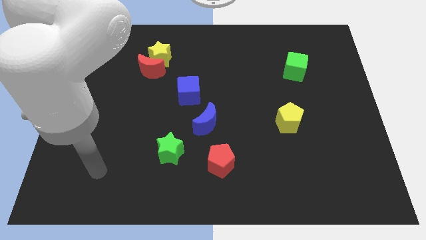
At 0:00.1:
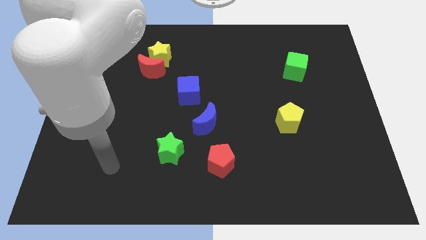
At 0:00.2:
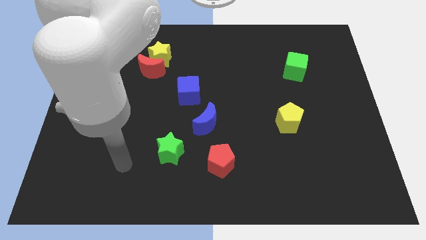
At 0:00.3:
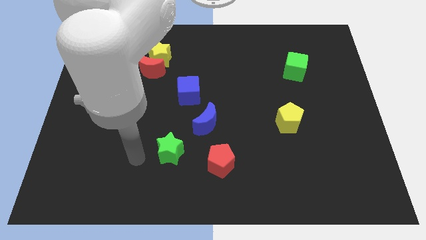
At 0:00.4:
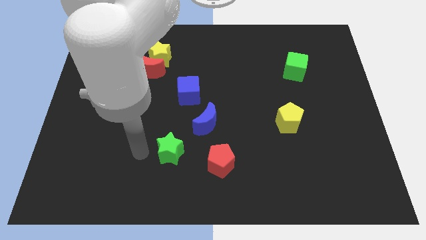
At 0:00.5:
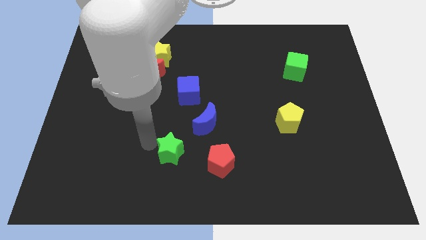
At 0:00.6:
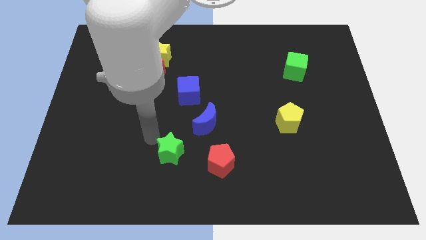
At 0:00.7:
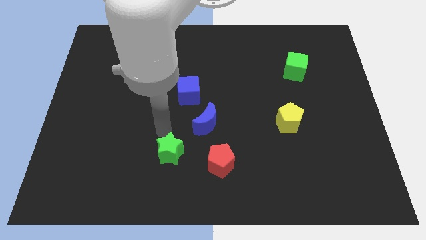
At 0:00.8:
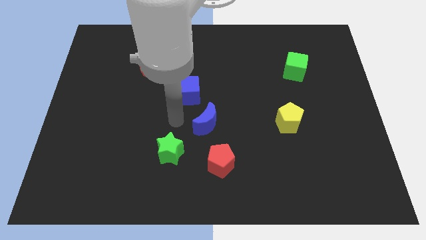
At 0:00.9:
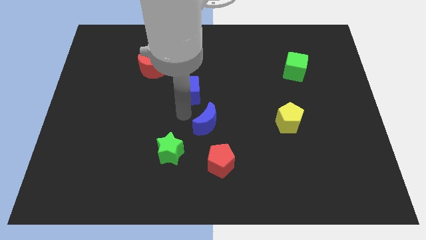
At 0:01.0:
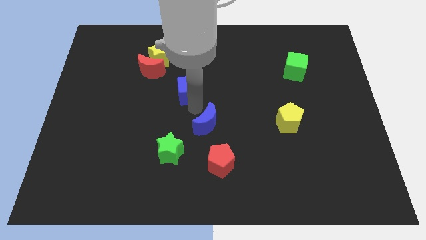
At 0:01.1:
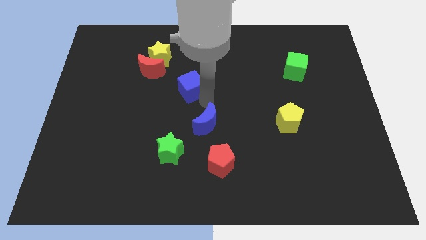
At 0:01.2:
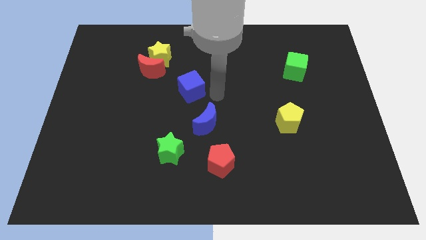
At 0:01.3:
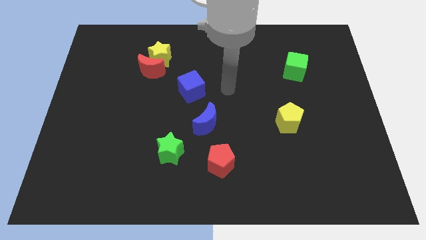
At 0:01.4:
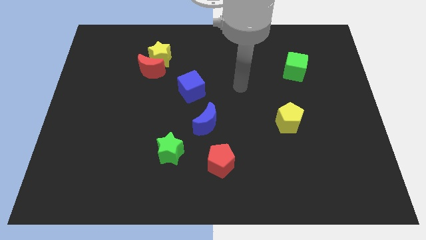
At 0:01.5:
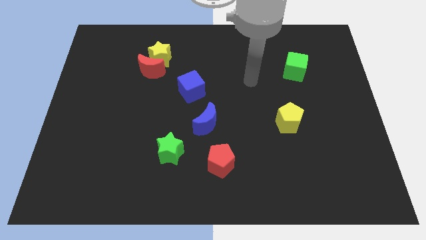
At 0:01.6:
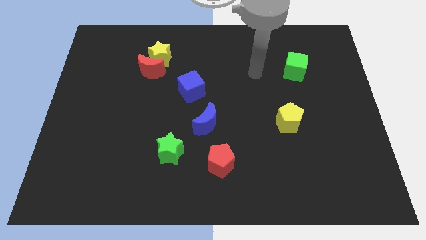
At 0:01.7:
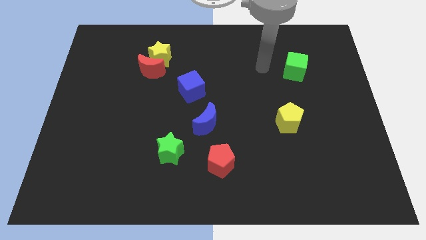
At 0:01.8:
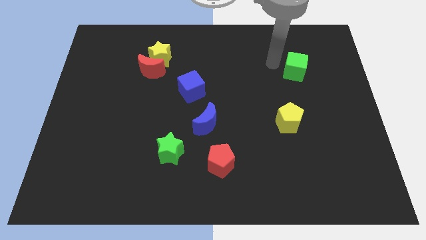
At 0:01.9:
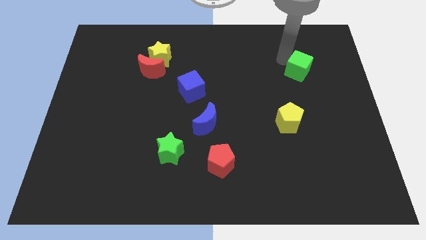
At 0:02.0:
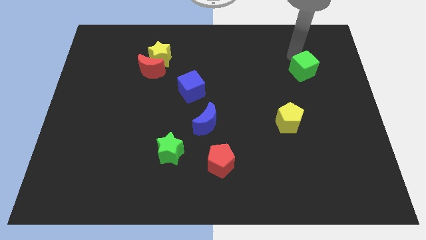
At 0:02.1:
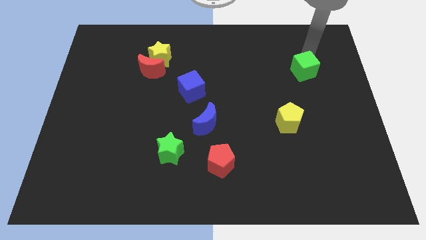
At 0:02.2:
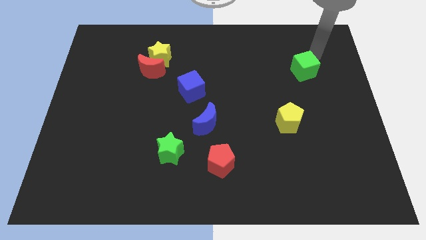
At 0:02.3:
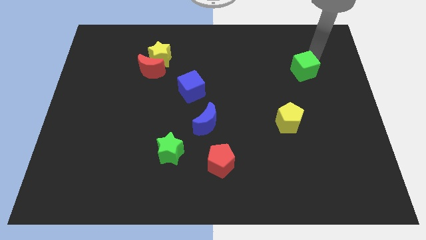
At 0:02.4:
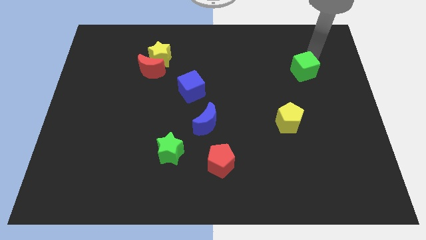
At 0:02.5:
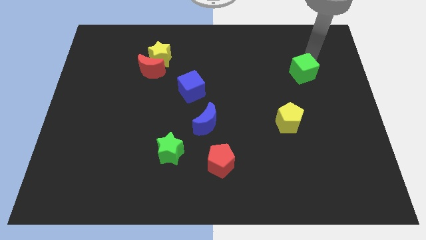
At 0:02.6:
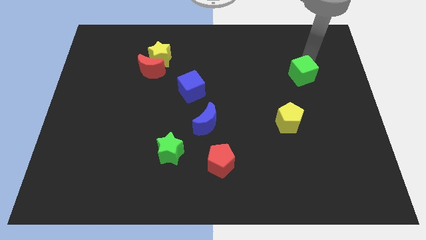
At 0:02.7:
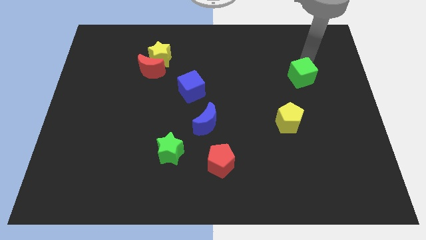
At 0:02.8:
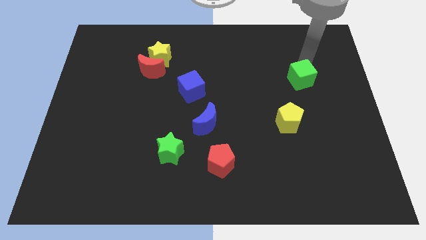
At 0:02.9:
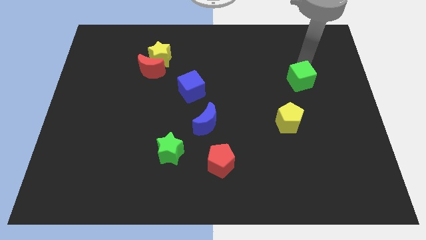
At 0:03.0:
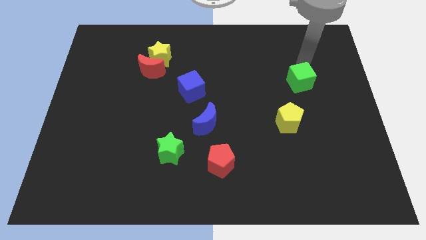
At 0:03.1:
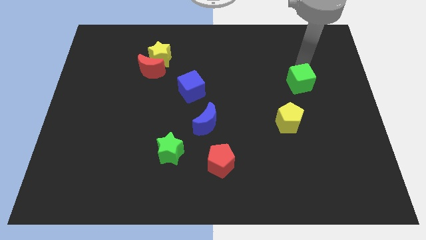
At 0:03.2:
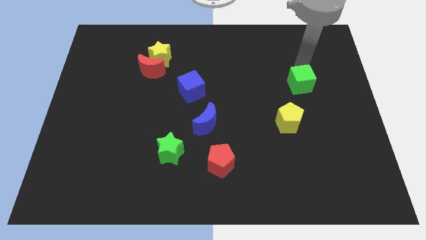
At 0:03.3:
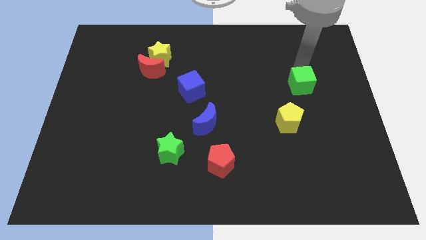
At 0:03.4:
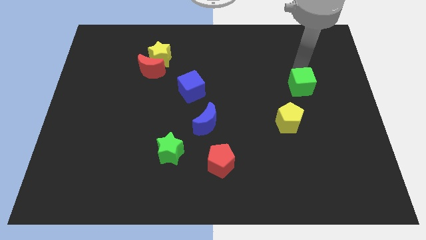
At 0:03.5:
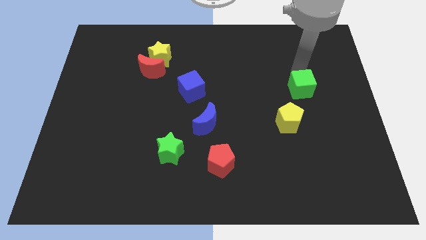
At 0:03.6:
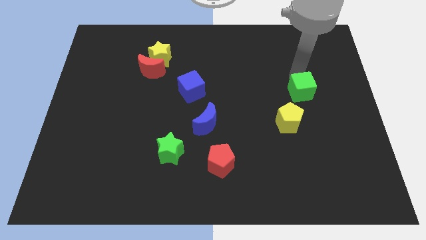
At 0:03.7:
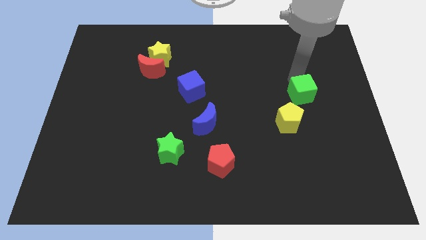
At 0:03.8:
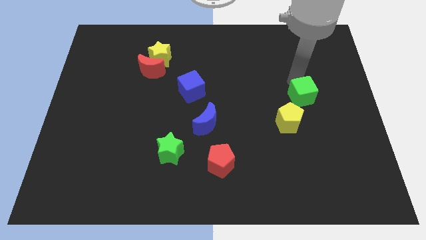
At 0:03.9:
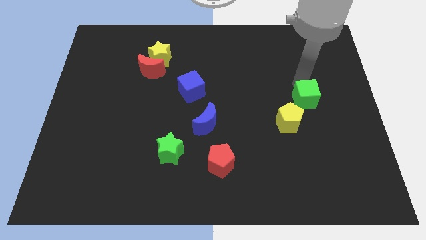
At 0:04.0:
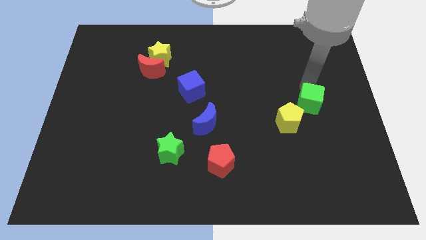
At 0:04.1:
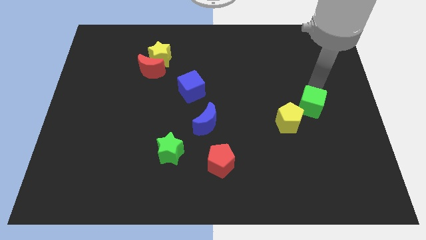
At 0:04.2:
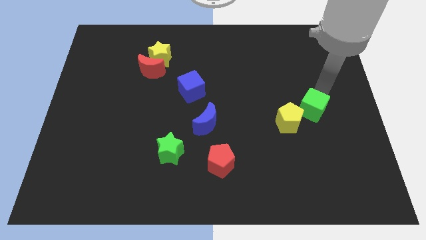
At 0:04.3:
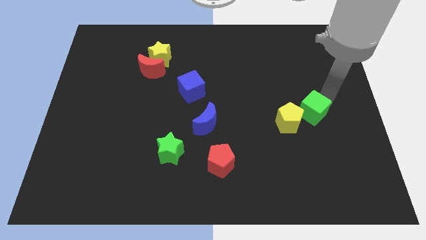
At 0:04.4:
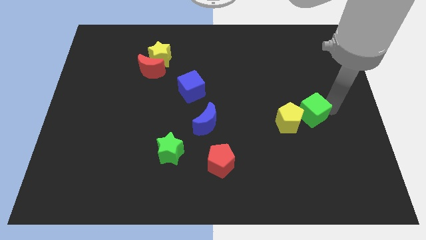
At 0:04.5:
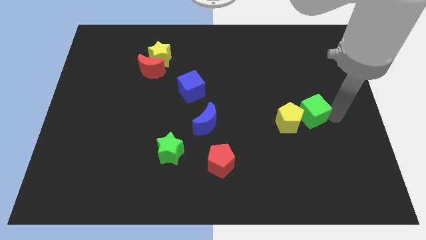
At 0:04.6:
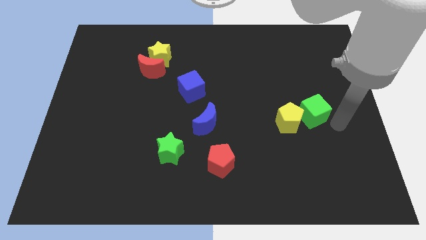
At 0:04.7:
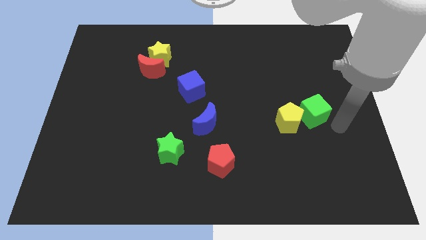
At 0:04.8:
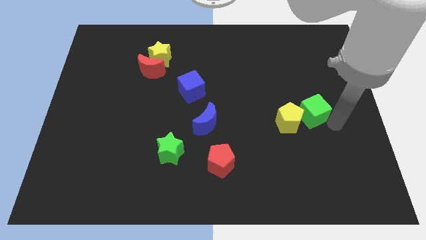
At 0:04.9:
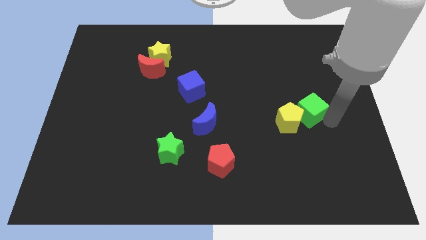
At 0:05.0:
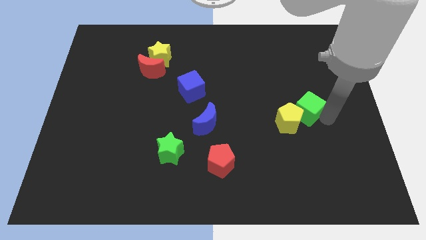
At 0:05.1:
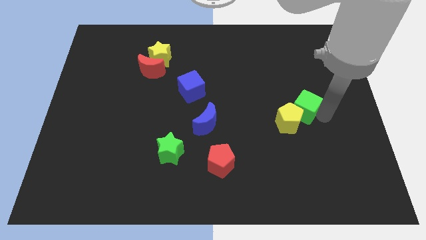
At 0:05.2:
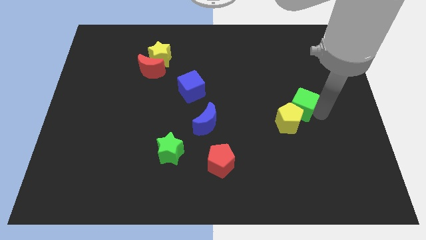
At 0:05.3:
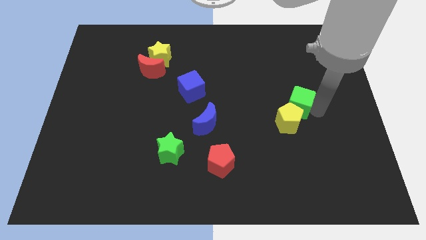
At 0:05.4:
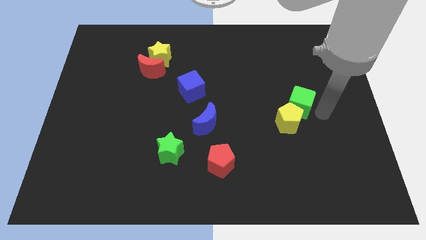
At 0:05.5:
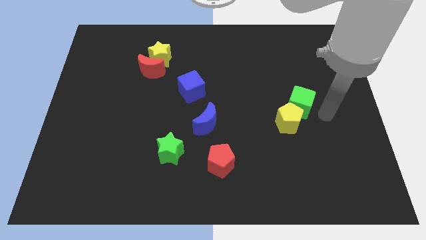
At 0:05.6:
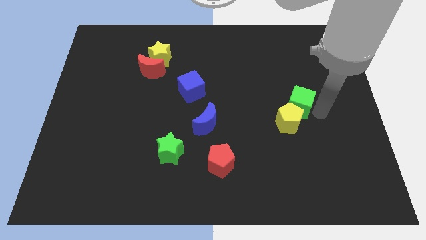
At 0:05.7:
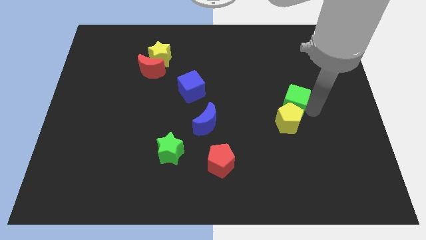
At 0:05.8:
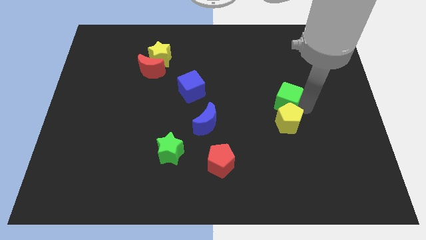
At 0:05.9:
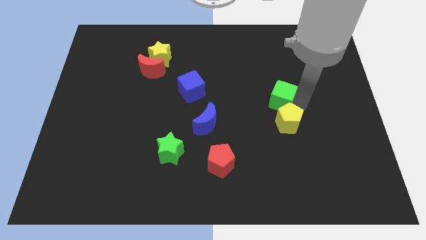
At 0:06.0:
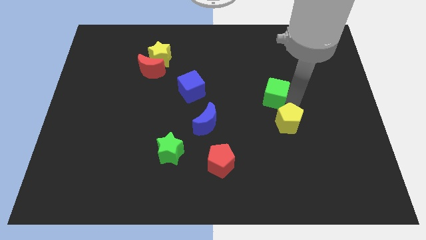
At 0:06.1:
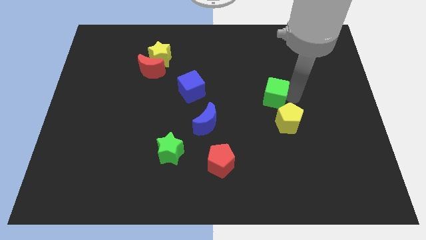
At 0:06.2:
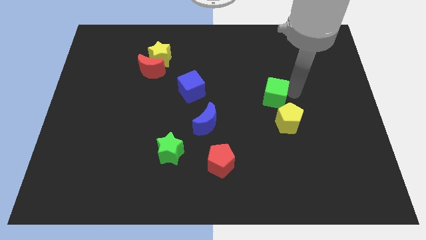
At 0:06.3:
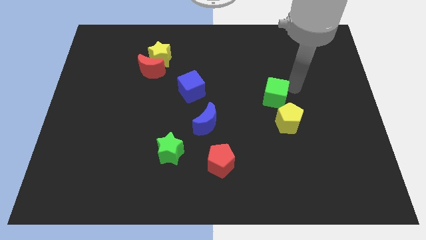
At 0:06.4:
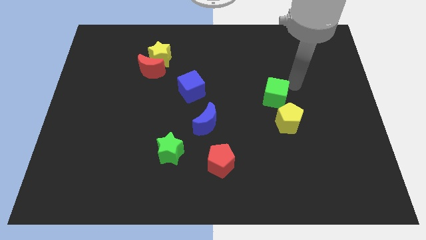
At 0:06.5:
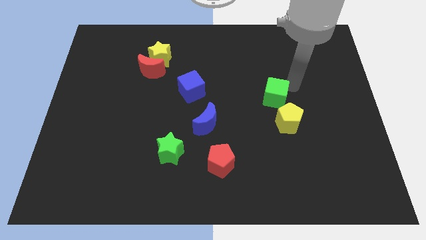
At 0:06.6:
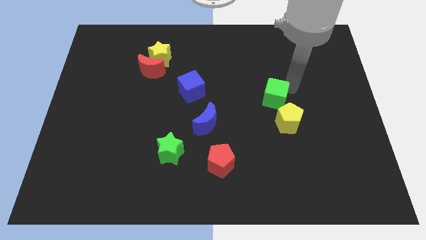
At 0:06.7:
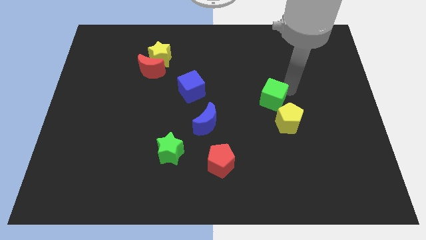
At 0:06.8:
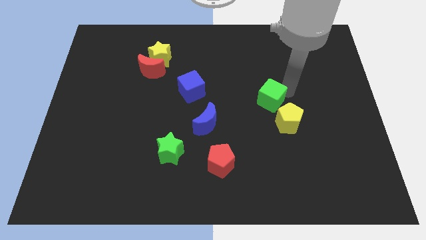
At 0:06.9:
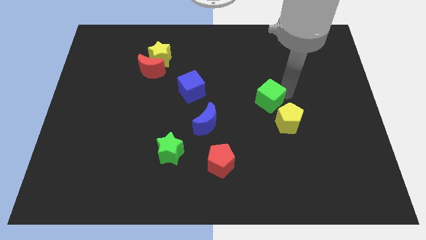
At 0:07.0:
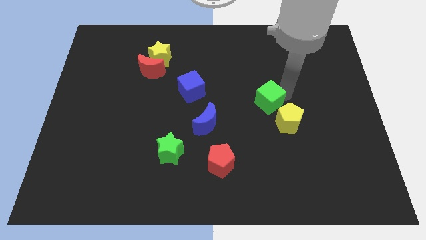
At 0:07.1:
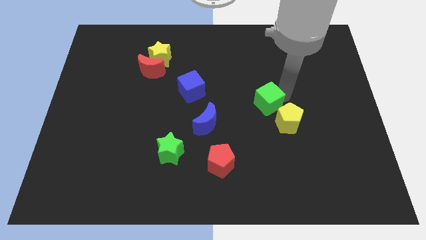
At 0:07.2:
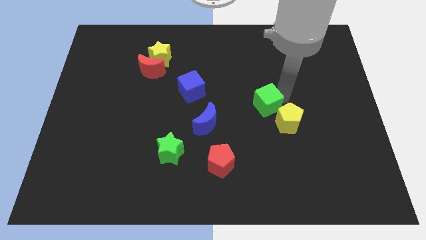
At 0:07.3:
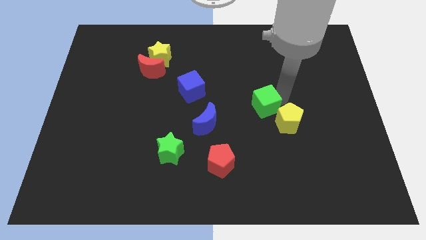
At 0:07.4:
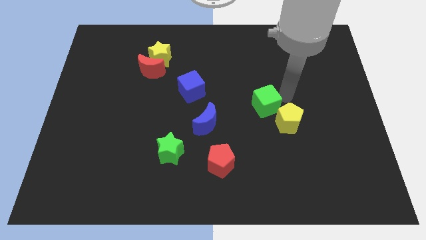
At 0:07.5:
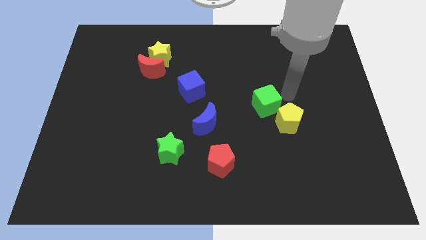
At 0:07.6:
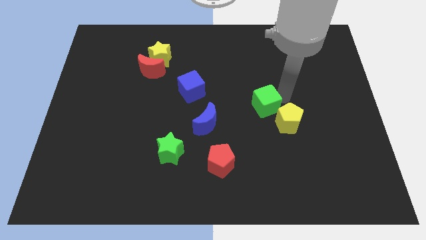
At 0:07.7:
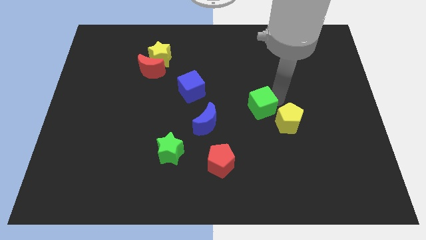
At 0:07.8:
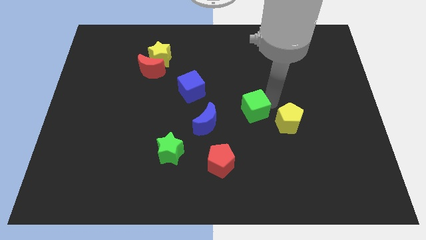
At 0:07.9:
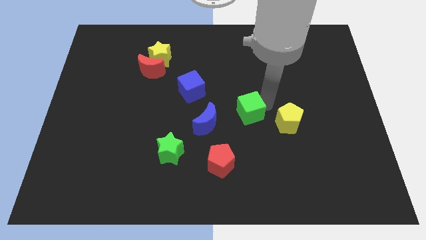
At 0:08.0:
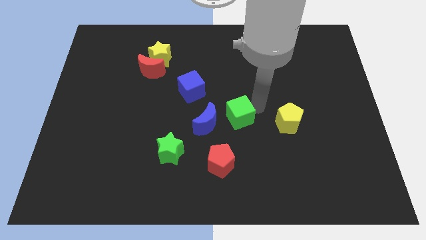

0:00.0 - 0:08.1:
push the green cube downwards and then to the left
